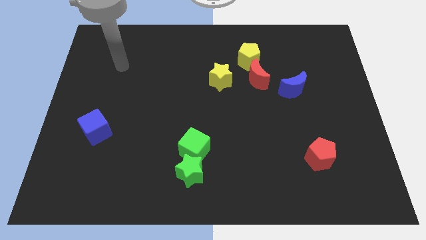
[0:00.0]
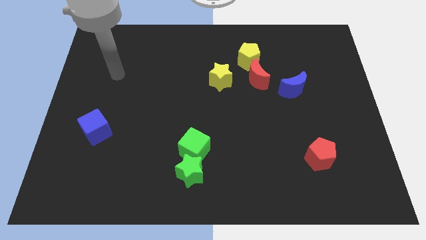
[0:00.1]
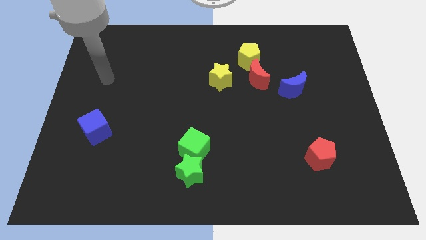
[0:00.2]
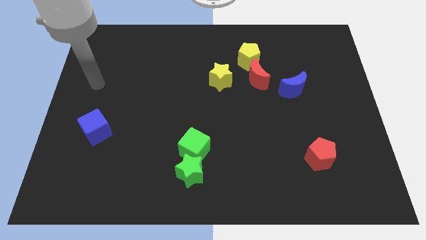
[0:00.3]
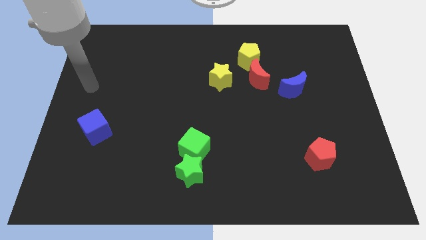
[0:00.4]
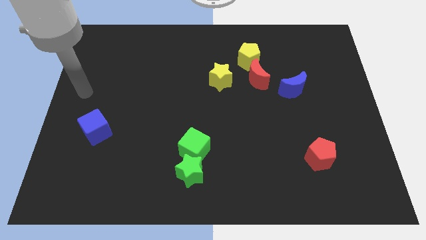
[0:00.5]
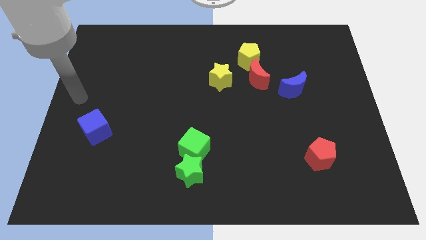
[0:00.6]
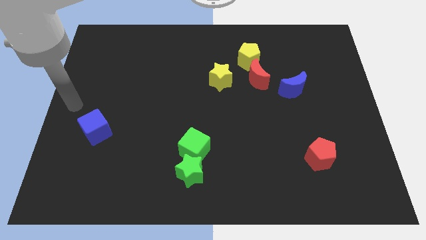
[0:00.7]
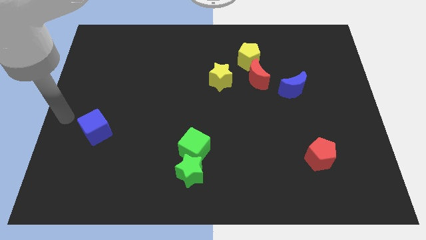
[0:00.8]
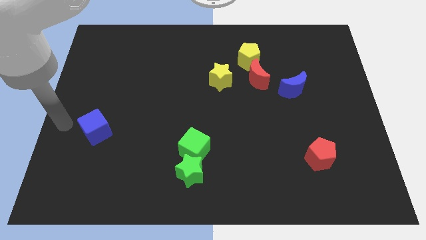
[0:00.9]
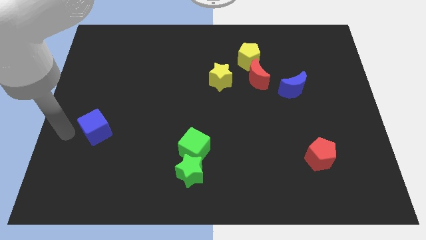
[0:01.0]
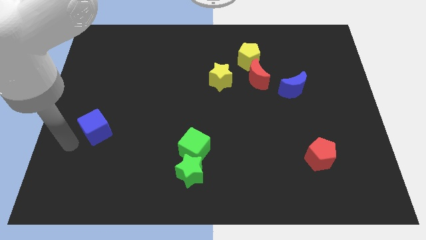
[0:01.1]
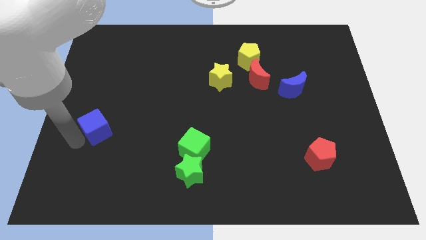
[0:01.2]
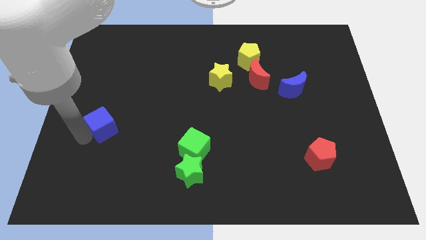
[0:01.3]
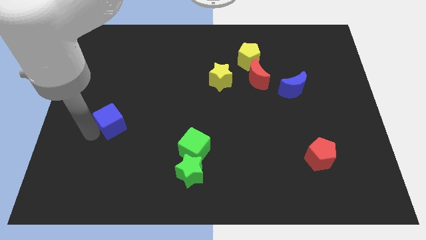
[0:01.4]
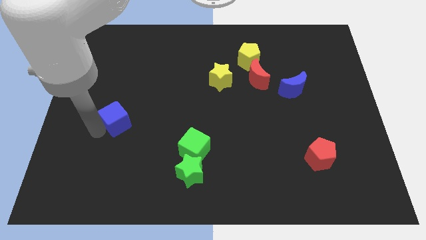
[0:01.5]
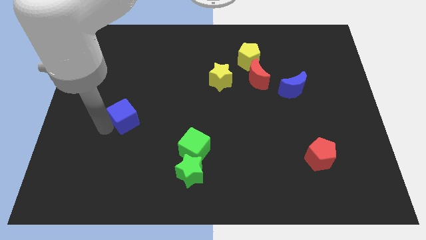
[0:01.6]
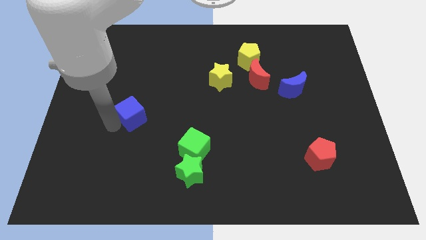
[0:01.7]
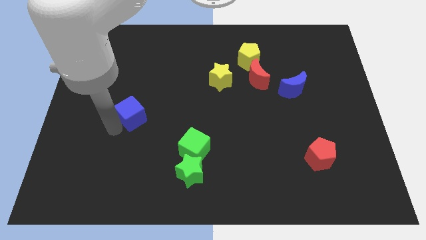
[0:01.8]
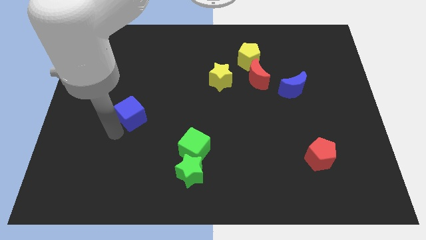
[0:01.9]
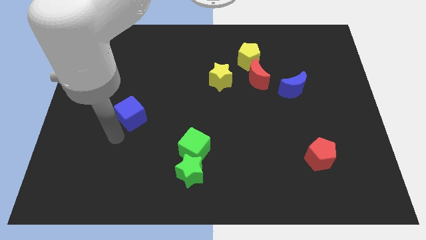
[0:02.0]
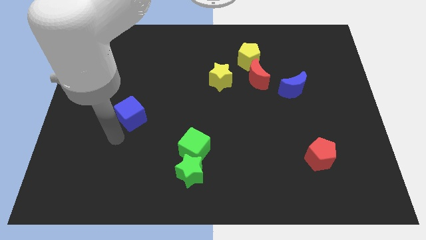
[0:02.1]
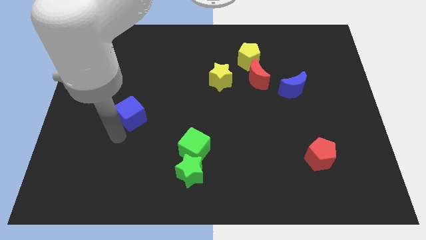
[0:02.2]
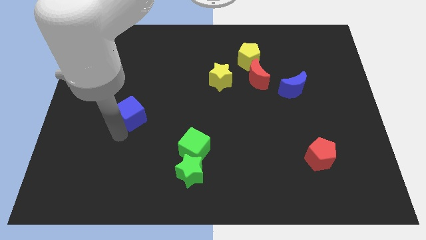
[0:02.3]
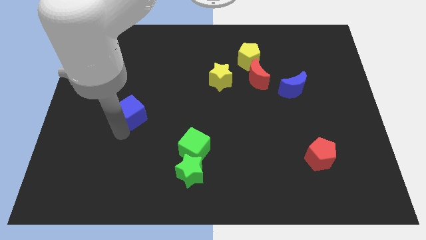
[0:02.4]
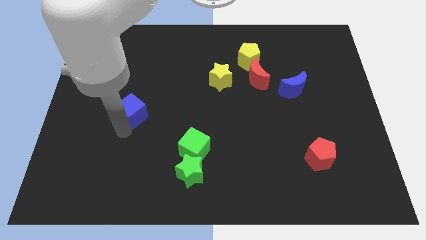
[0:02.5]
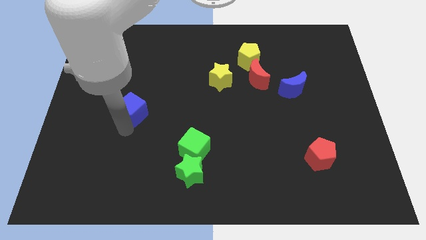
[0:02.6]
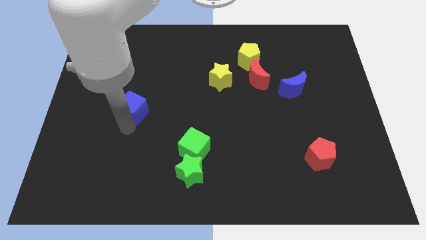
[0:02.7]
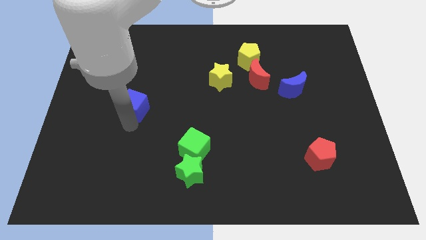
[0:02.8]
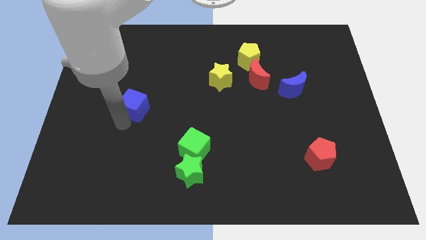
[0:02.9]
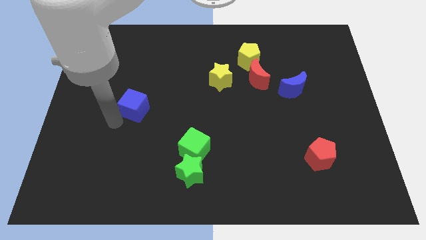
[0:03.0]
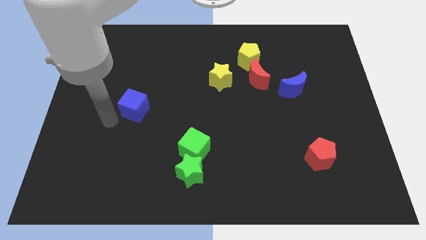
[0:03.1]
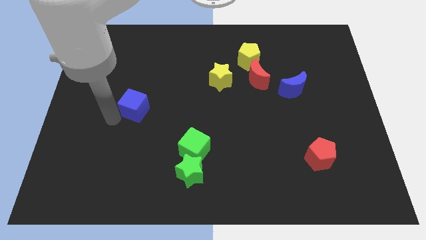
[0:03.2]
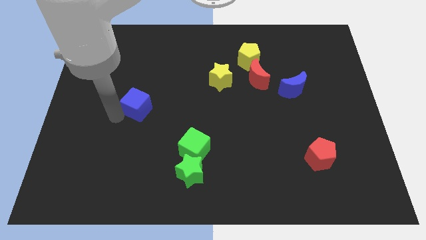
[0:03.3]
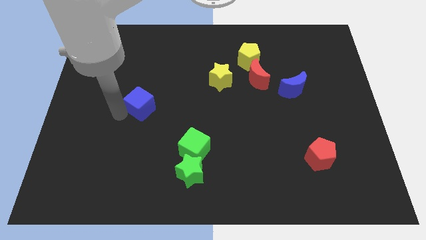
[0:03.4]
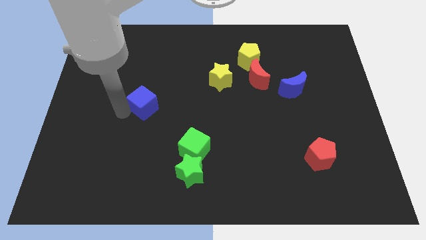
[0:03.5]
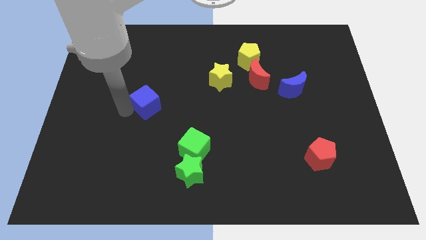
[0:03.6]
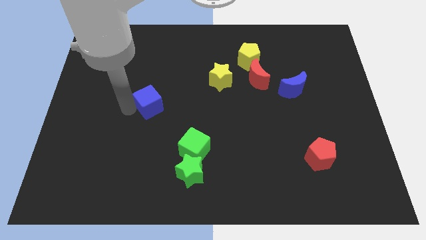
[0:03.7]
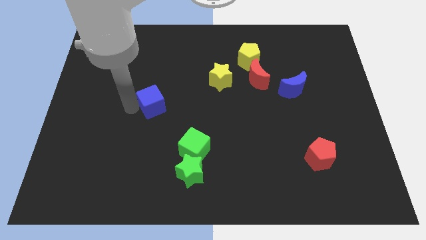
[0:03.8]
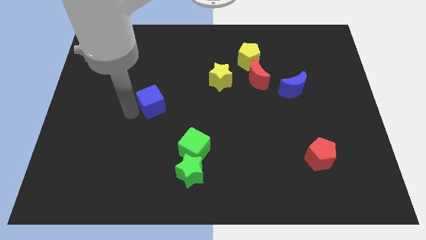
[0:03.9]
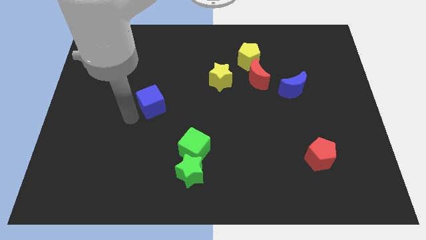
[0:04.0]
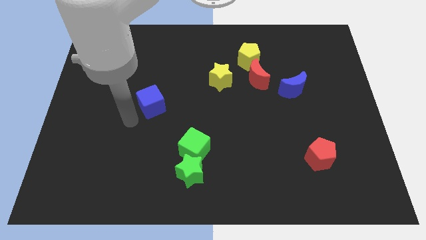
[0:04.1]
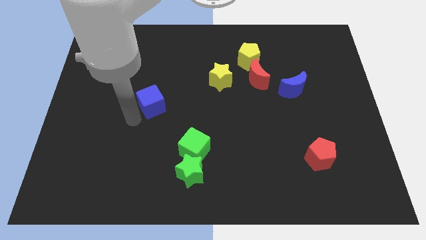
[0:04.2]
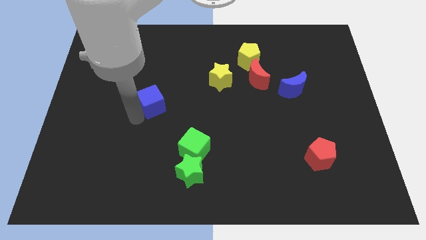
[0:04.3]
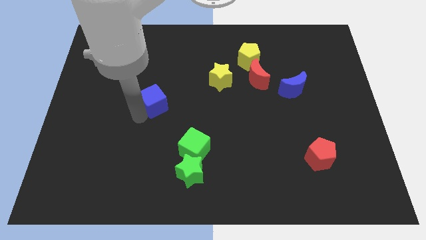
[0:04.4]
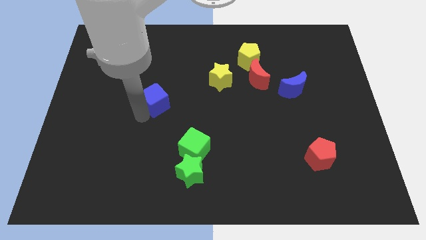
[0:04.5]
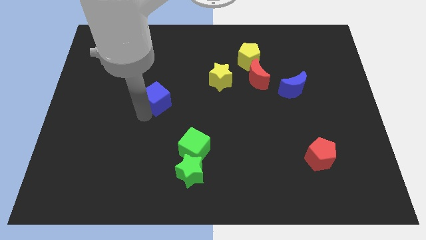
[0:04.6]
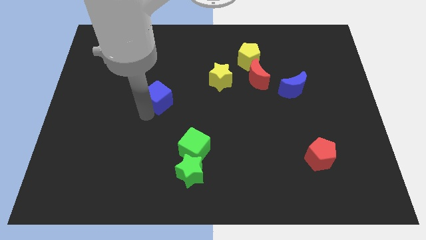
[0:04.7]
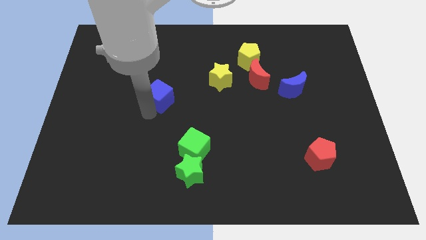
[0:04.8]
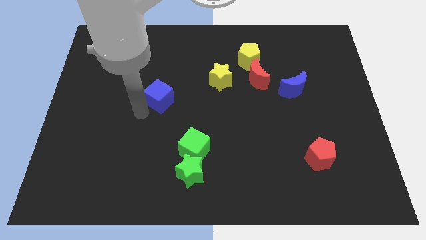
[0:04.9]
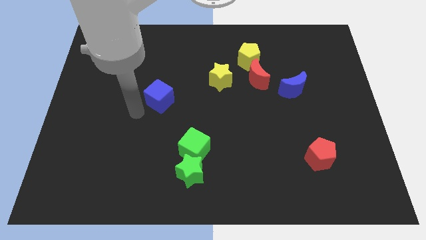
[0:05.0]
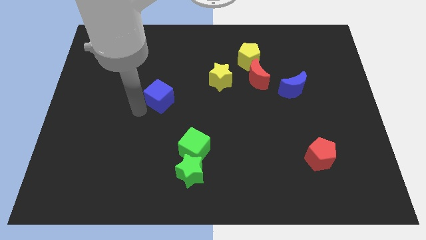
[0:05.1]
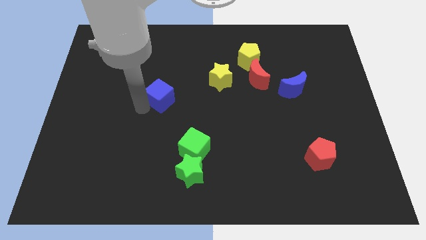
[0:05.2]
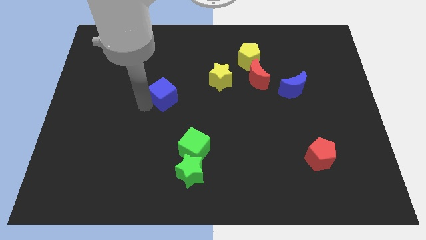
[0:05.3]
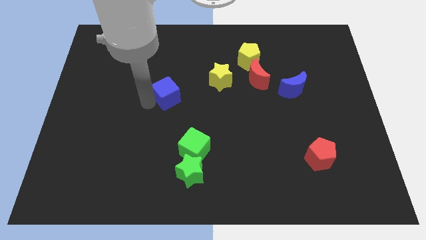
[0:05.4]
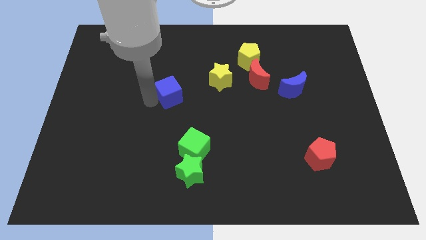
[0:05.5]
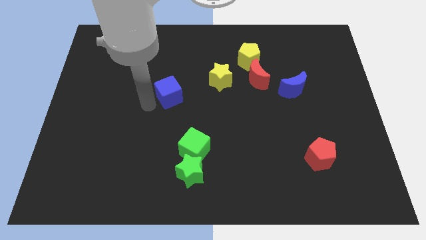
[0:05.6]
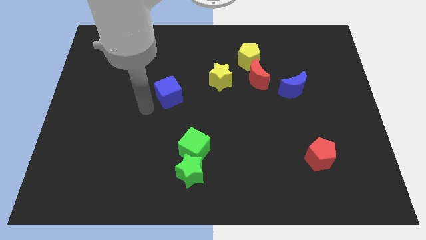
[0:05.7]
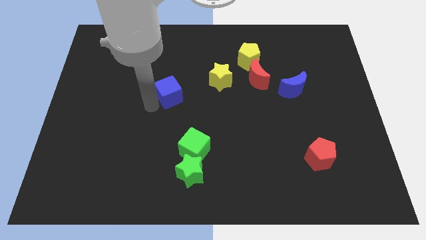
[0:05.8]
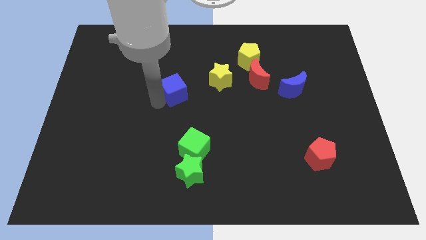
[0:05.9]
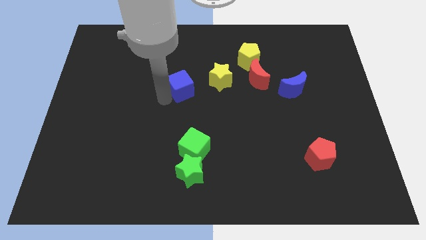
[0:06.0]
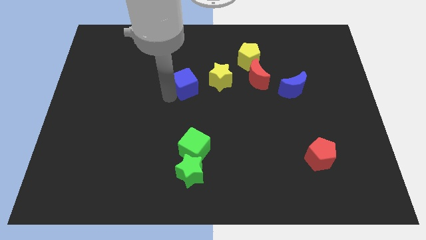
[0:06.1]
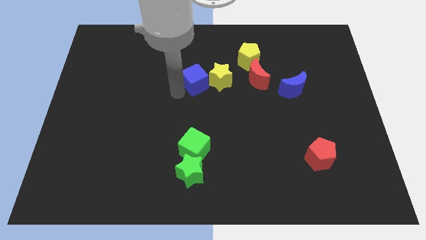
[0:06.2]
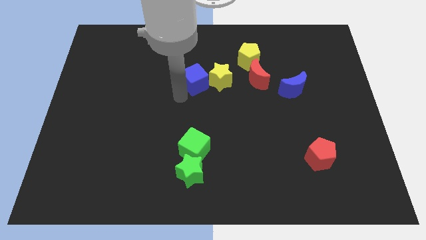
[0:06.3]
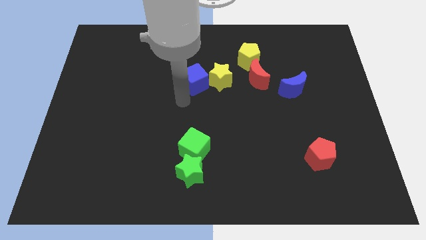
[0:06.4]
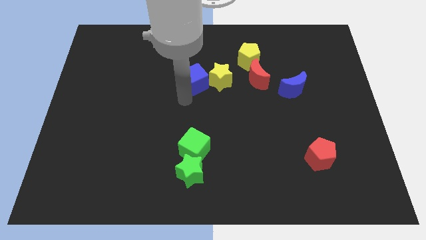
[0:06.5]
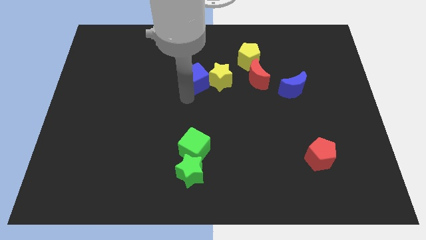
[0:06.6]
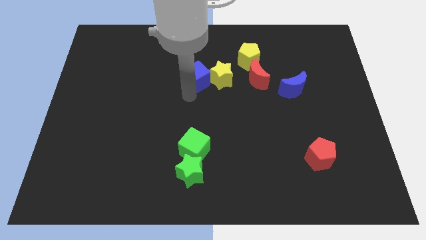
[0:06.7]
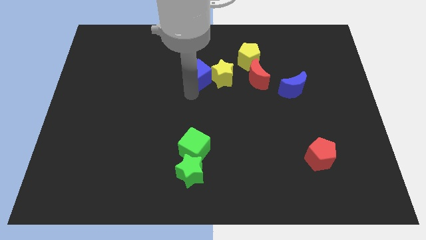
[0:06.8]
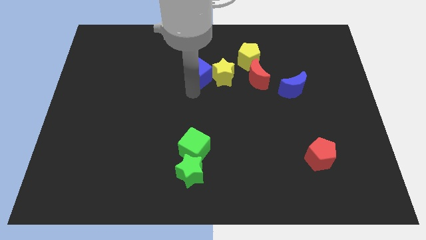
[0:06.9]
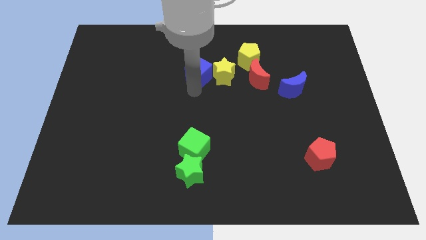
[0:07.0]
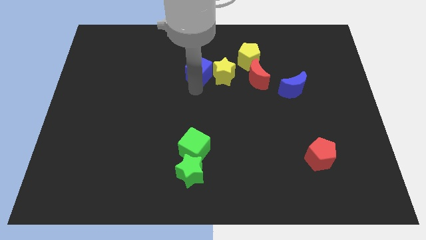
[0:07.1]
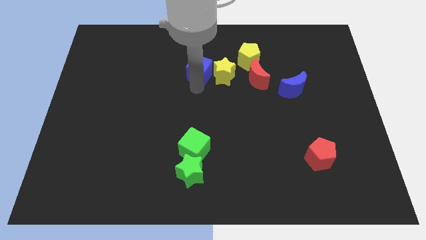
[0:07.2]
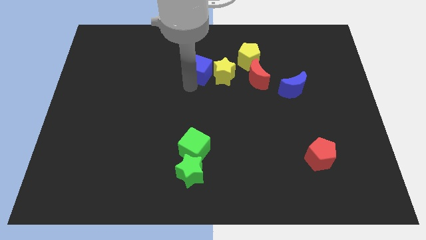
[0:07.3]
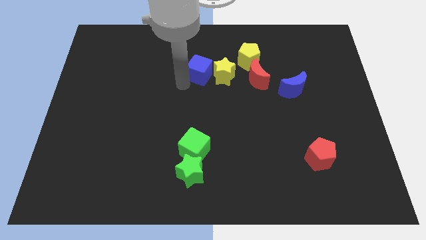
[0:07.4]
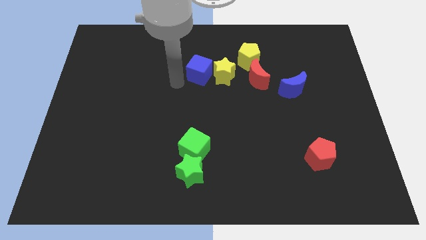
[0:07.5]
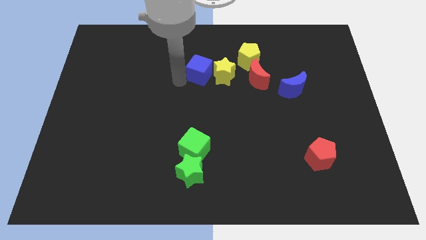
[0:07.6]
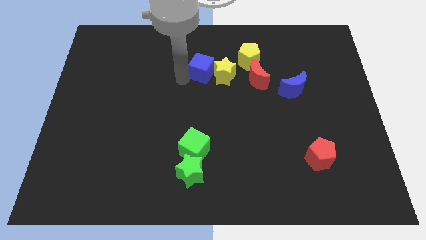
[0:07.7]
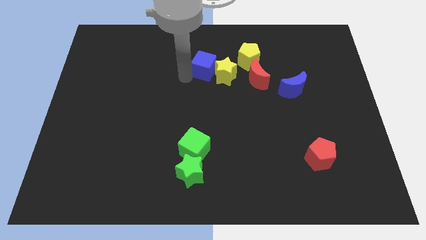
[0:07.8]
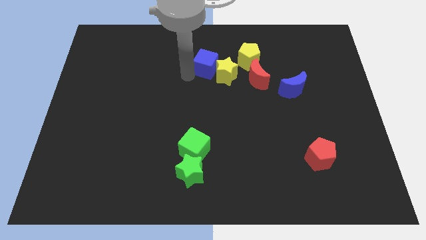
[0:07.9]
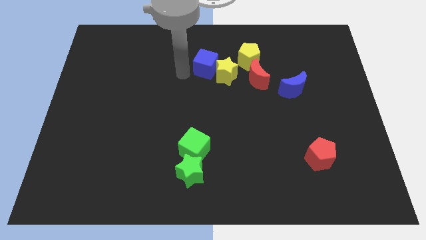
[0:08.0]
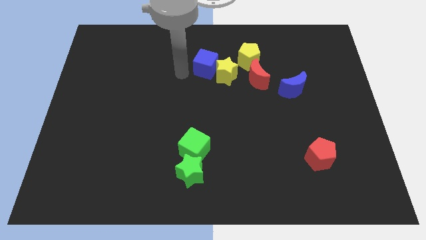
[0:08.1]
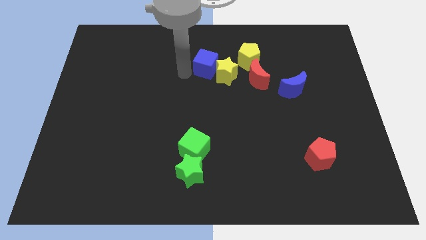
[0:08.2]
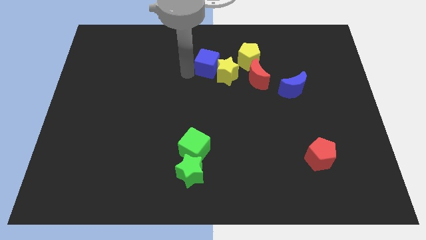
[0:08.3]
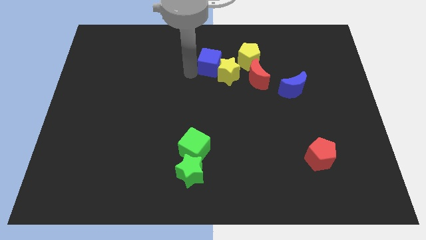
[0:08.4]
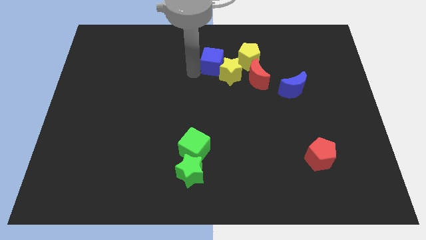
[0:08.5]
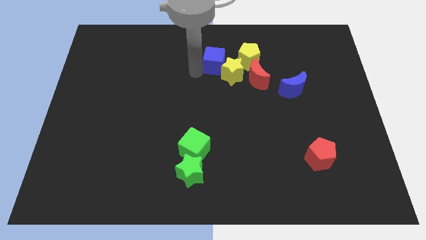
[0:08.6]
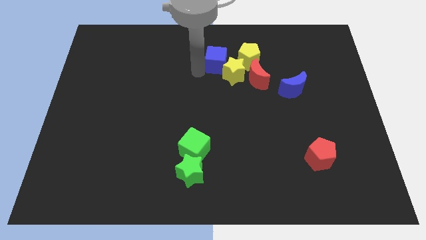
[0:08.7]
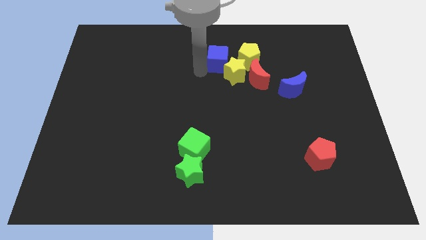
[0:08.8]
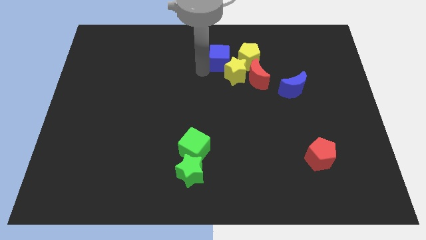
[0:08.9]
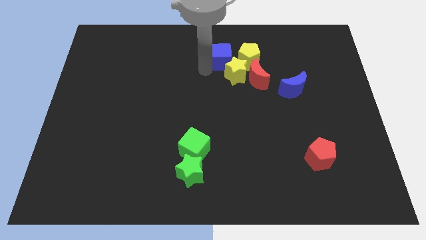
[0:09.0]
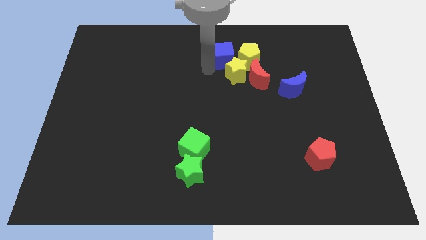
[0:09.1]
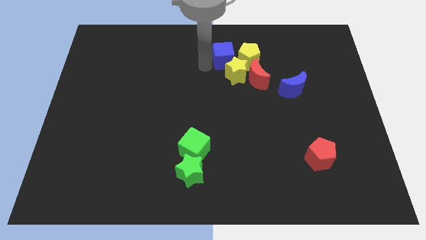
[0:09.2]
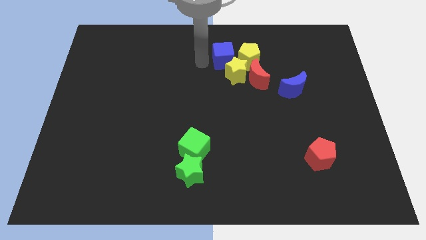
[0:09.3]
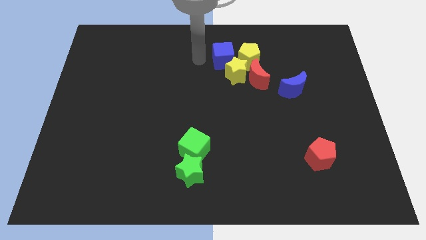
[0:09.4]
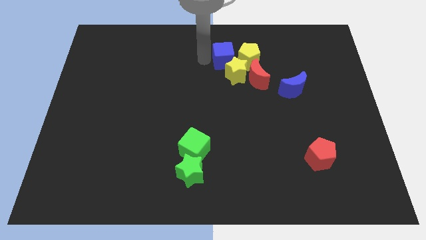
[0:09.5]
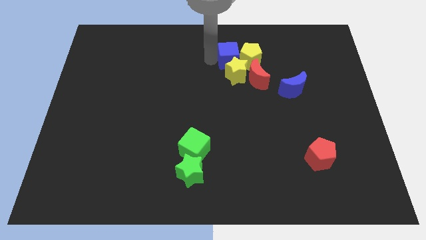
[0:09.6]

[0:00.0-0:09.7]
push the blue cube close to the yellow pentagon
